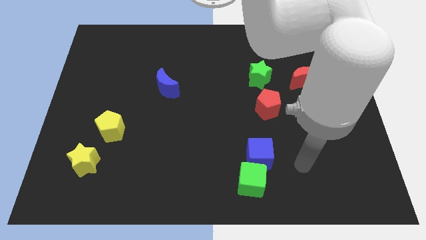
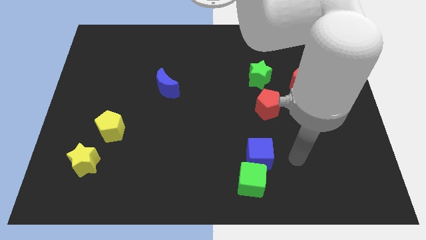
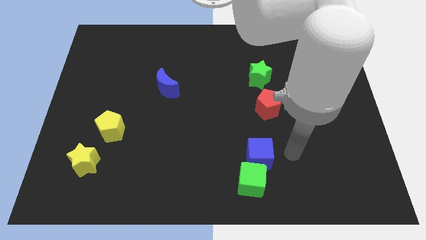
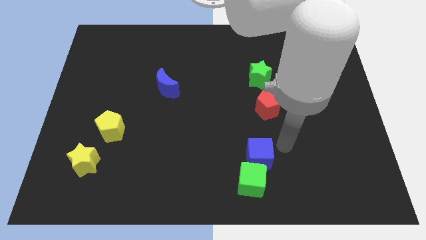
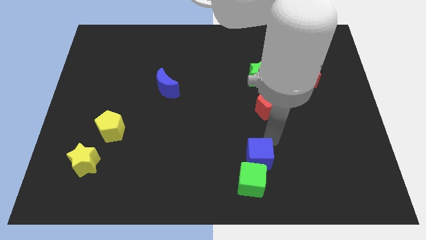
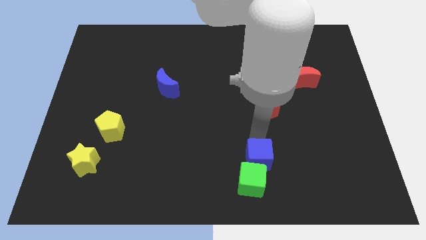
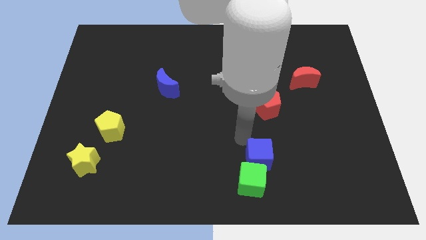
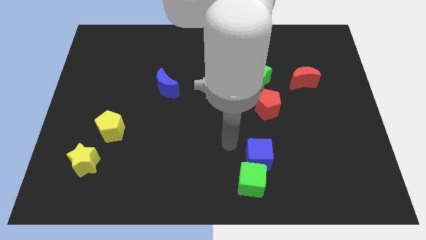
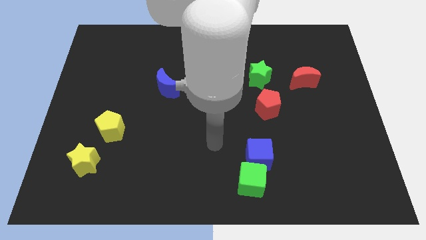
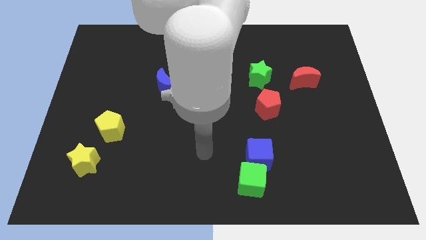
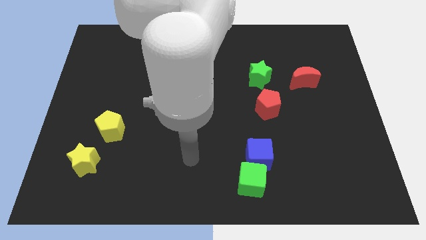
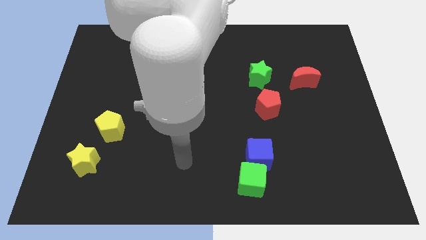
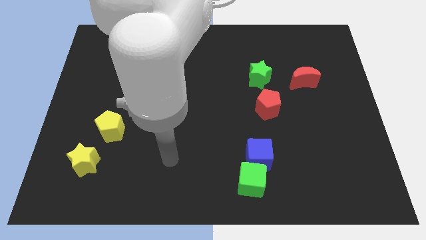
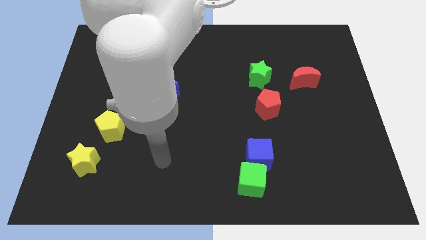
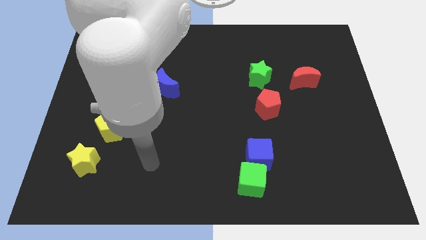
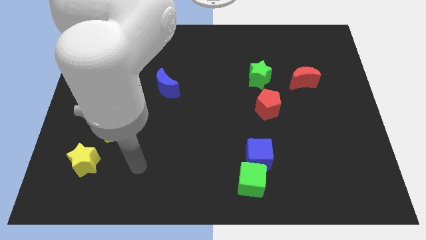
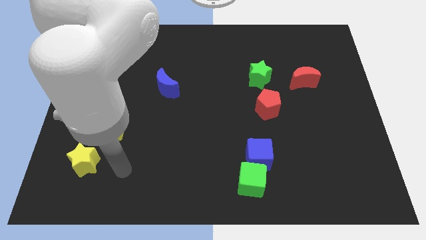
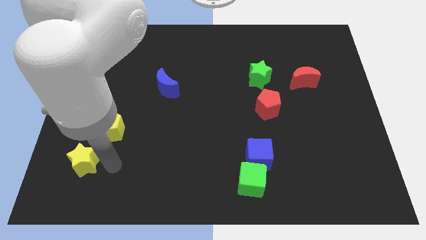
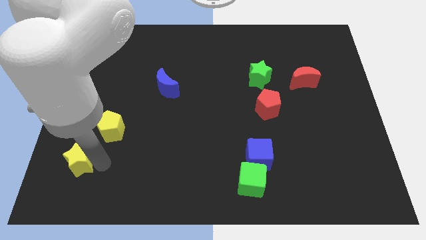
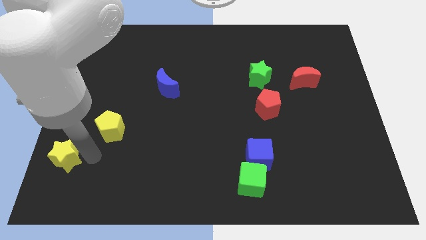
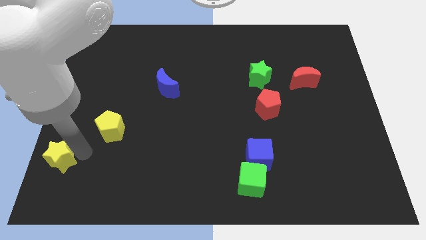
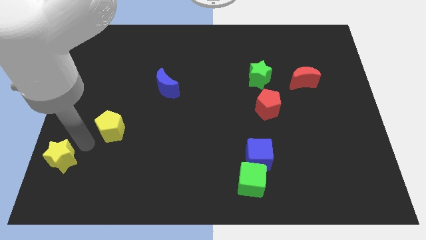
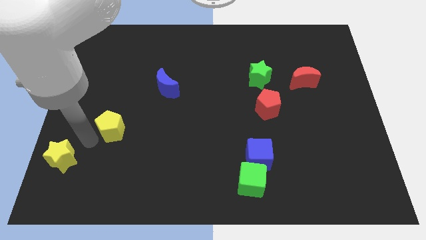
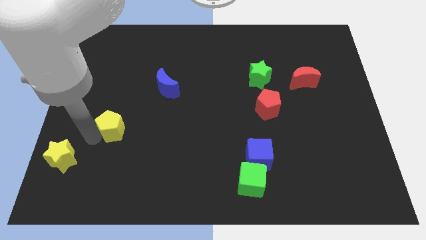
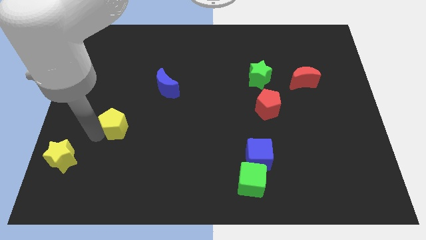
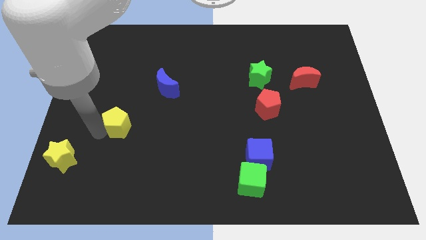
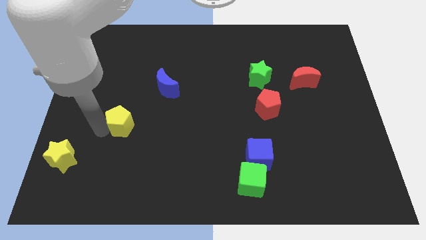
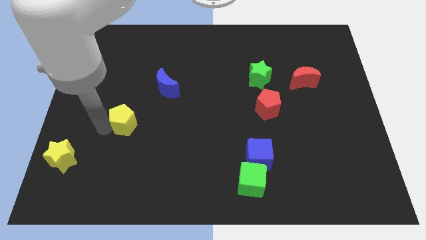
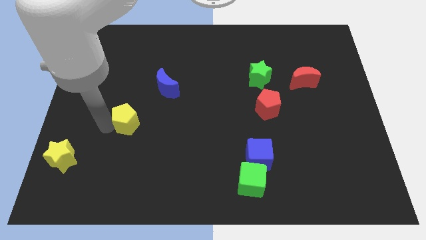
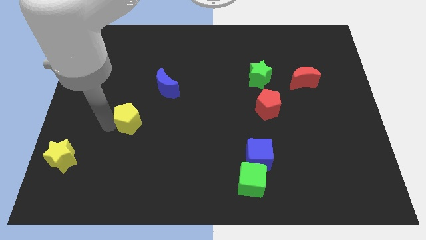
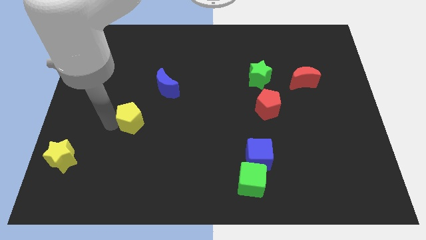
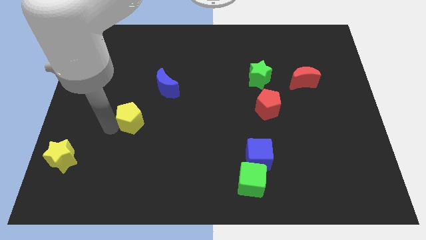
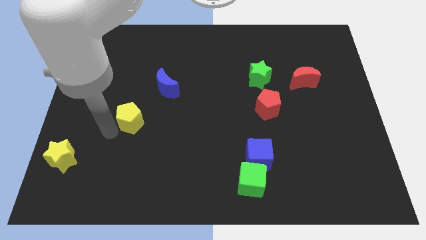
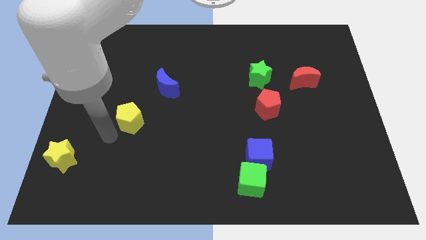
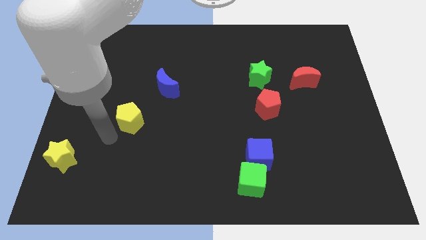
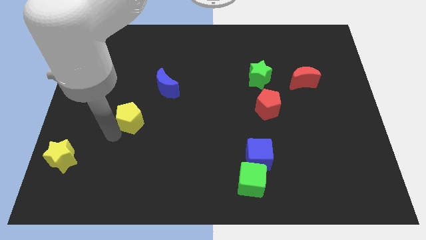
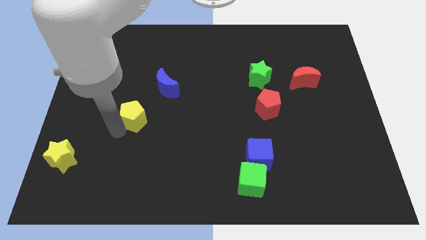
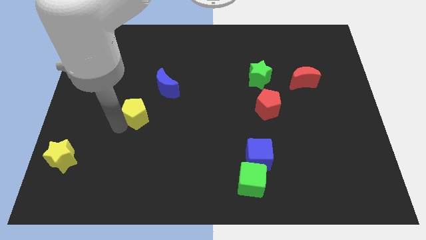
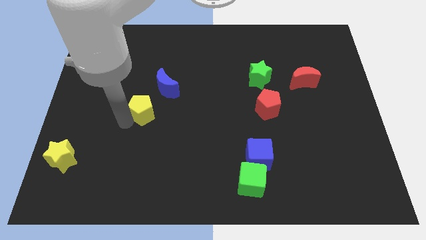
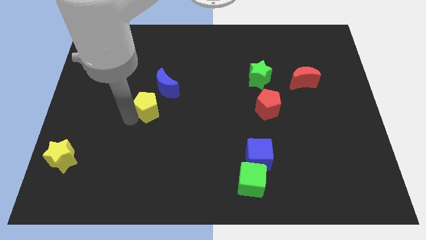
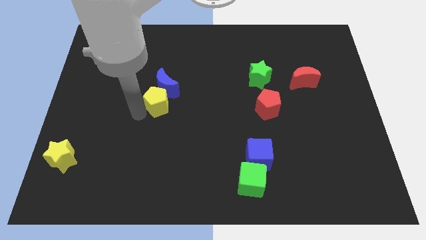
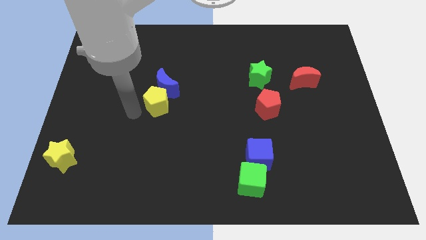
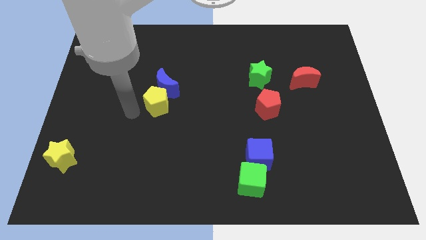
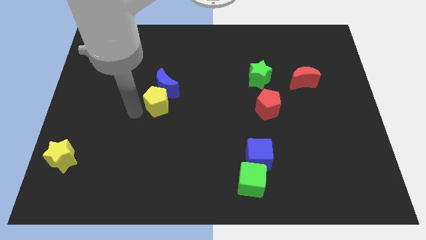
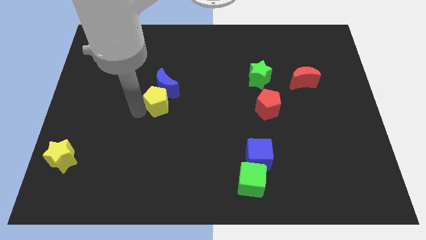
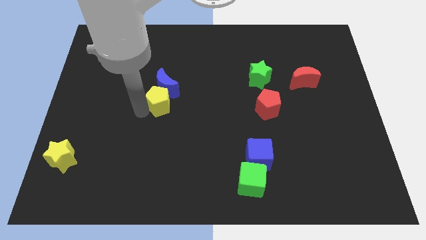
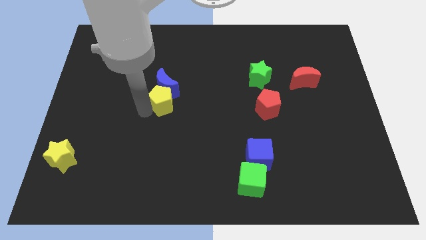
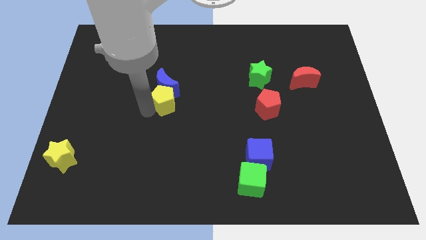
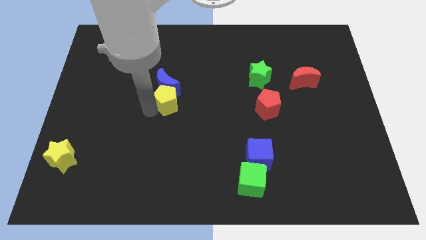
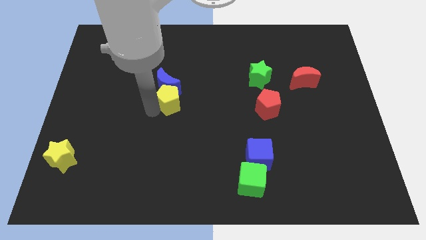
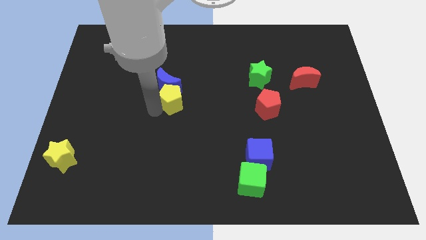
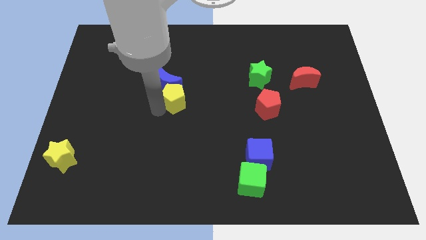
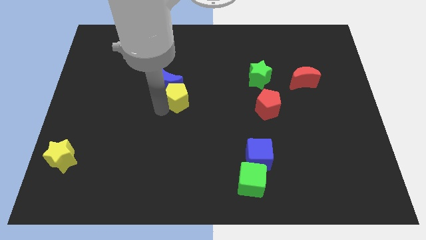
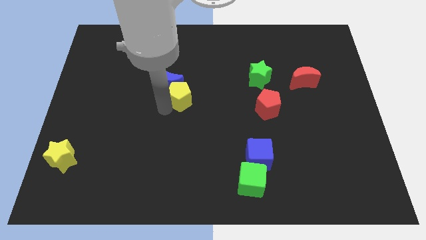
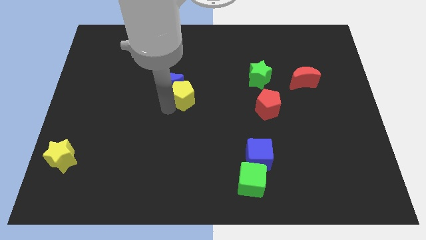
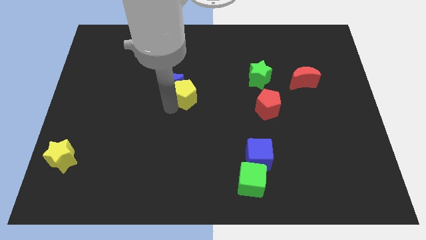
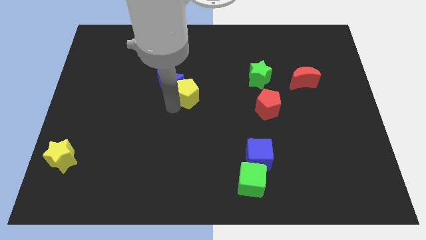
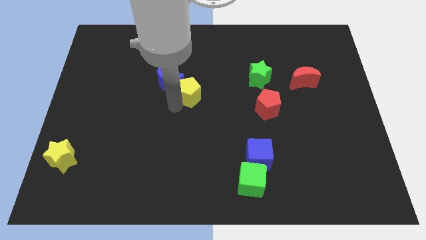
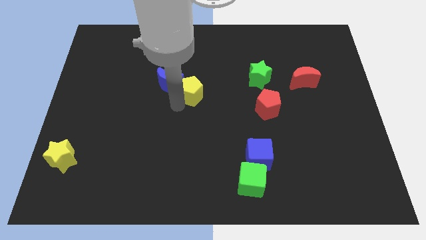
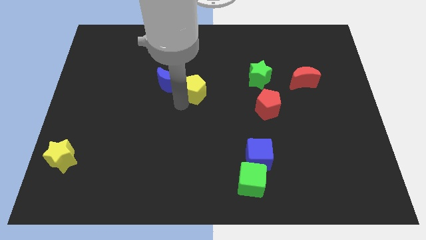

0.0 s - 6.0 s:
move the yellow pentagon upwards and to the right

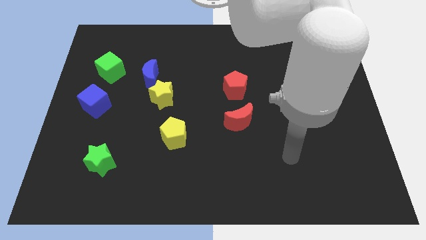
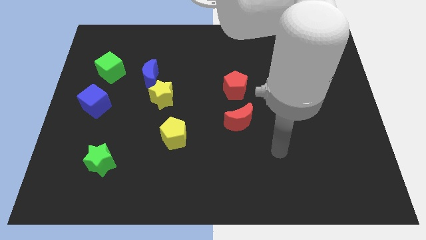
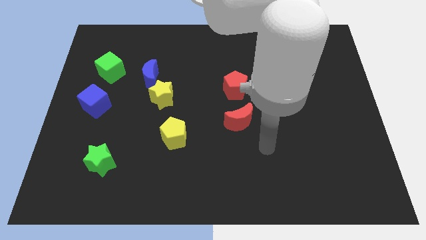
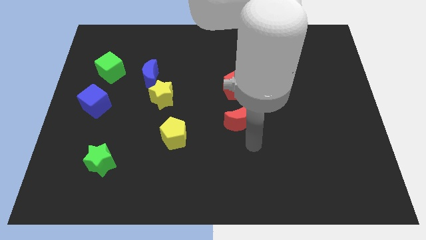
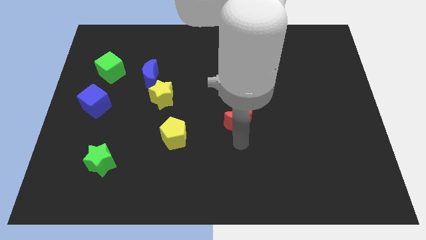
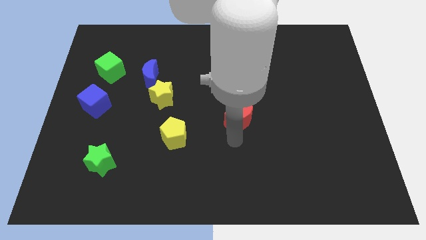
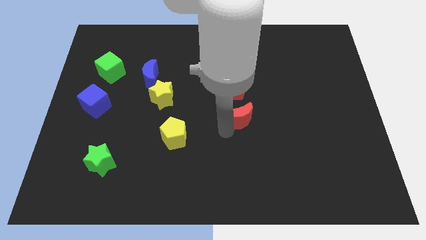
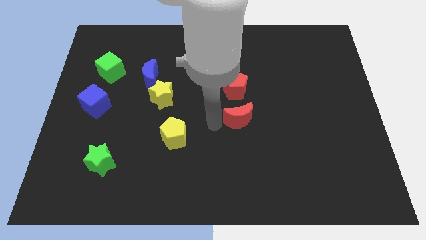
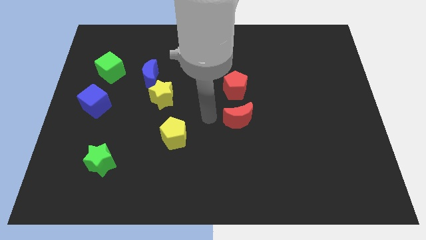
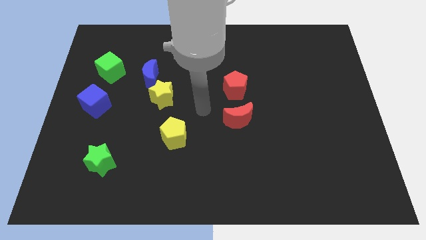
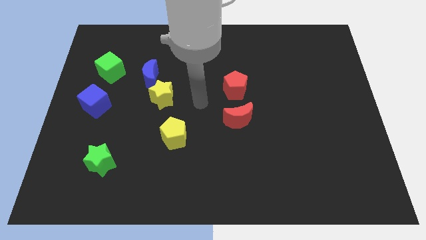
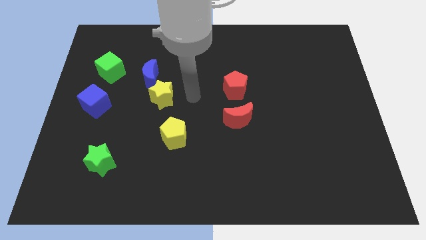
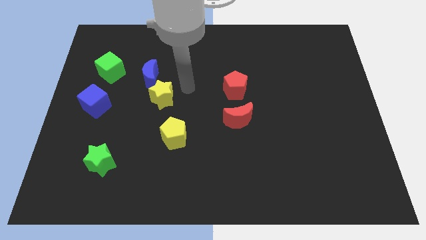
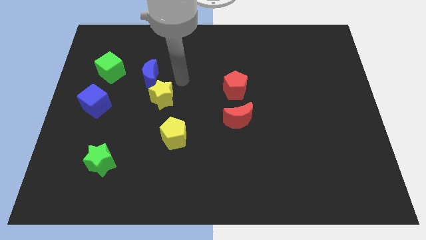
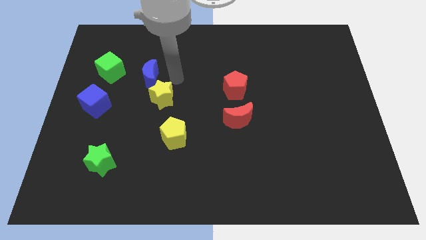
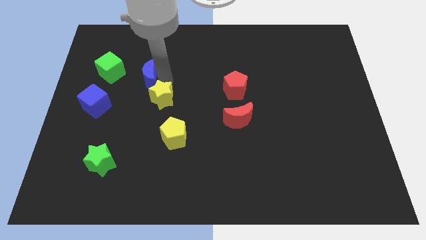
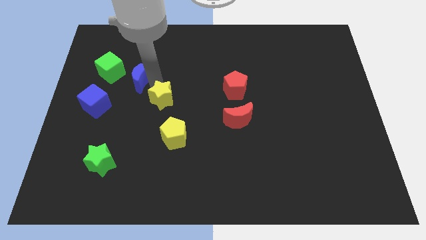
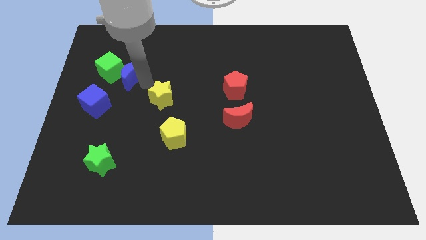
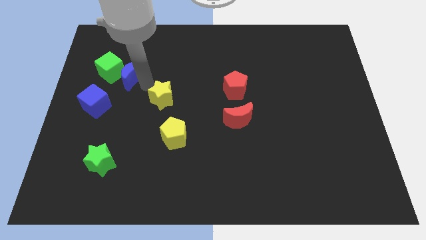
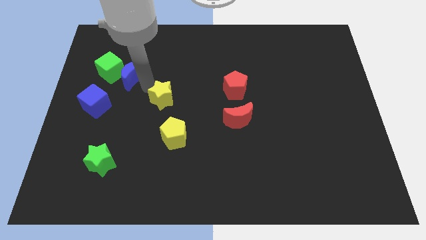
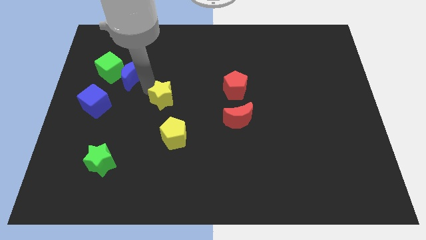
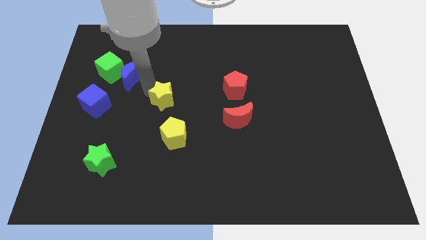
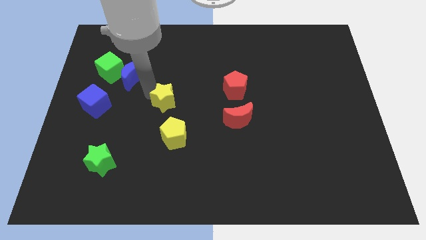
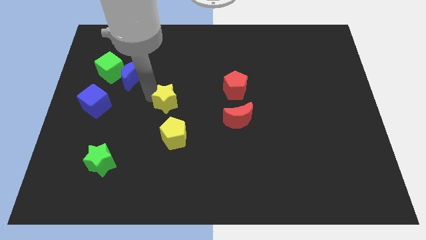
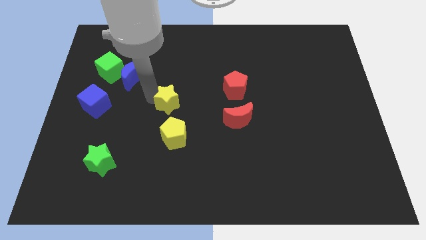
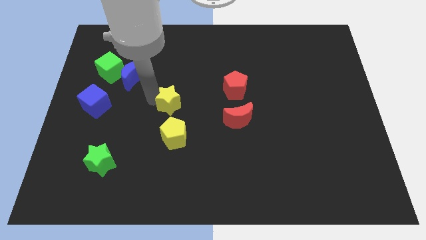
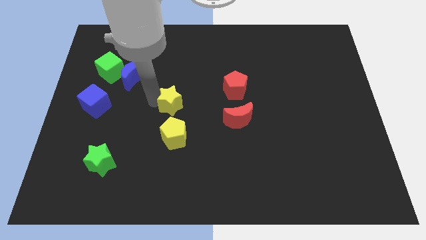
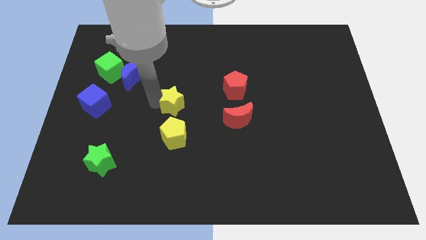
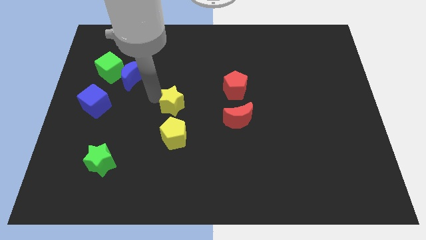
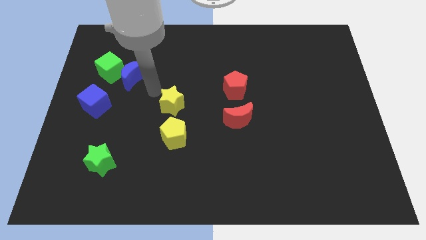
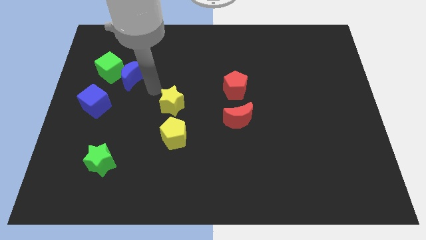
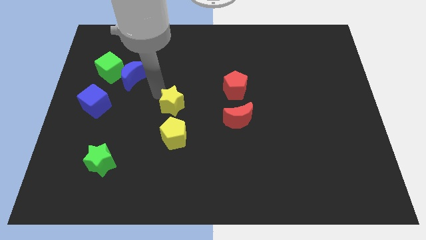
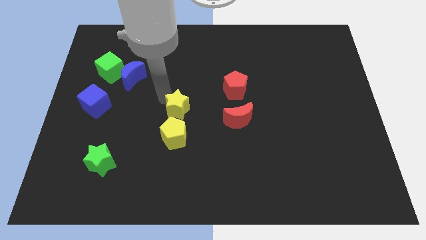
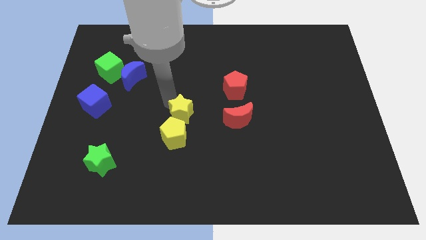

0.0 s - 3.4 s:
slightly push the yellow star downwards and then to the right
